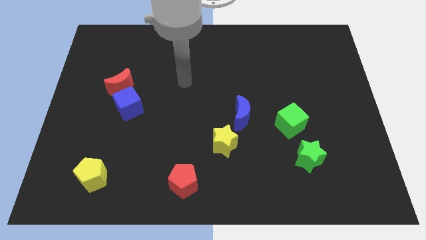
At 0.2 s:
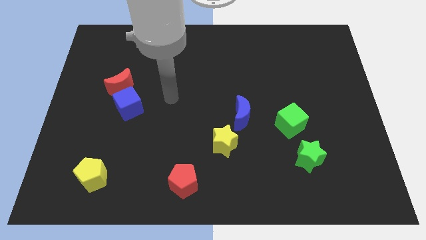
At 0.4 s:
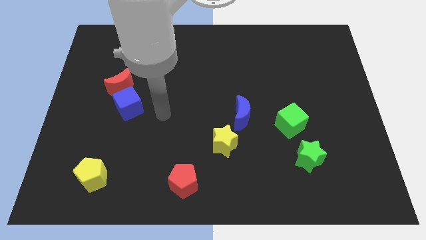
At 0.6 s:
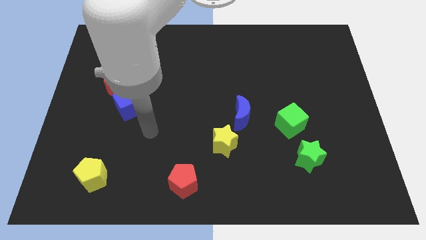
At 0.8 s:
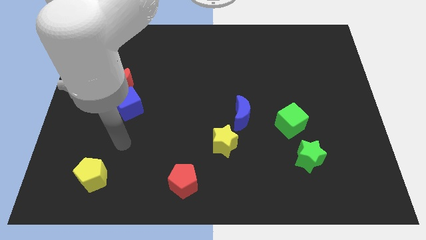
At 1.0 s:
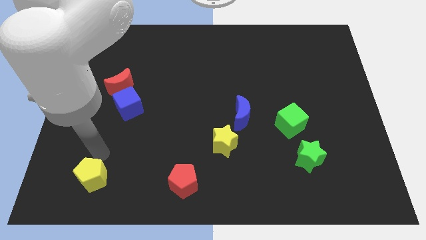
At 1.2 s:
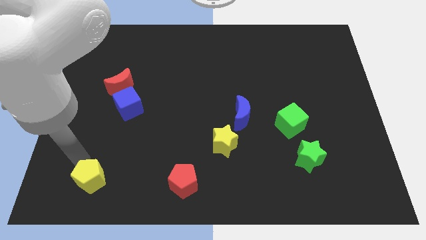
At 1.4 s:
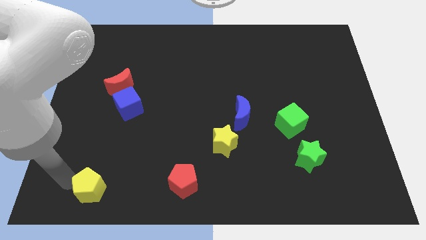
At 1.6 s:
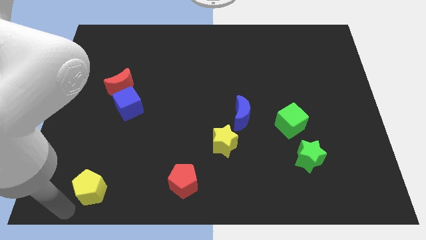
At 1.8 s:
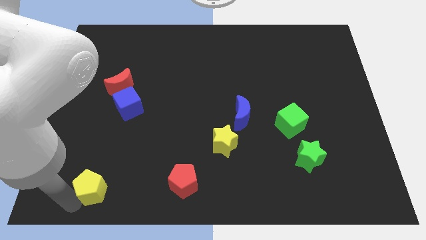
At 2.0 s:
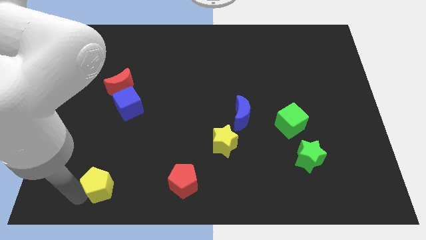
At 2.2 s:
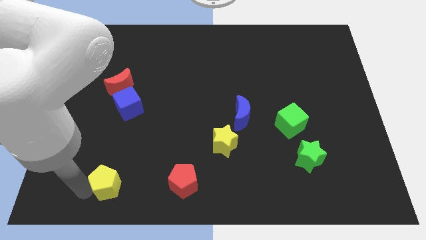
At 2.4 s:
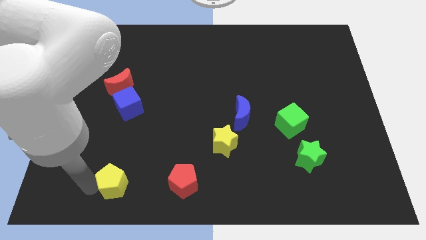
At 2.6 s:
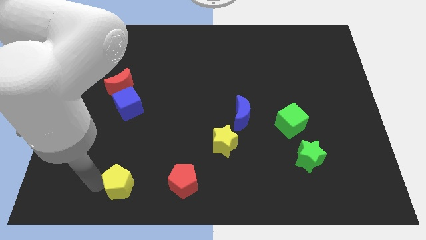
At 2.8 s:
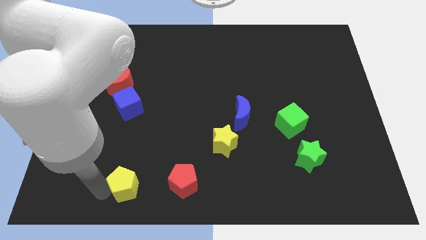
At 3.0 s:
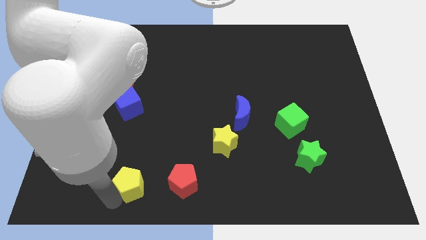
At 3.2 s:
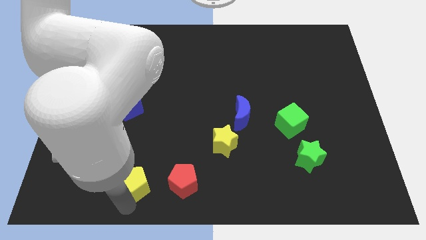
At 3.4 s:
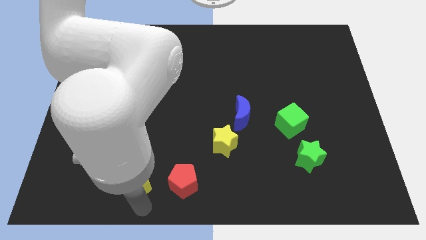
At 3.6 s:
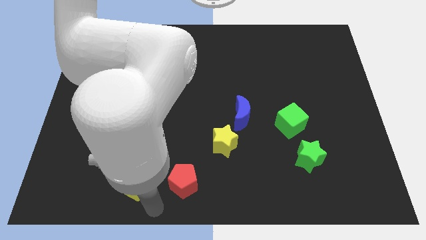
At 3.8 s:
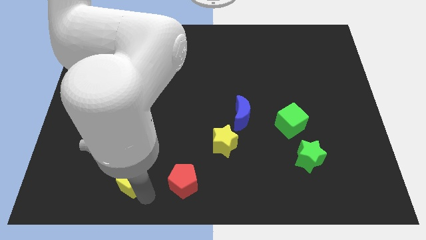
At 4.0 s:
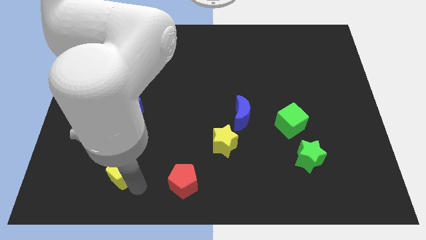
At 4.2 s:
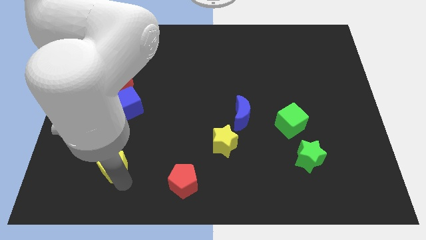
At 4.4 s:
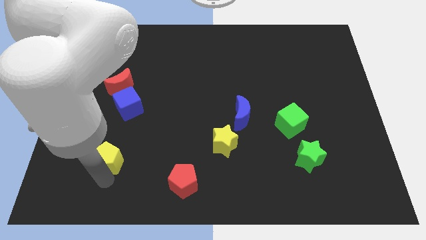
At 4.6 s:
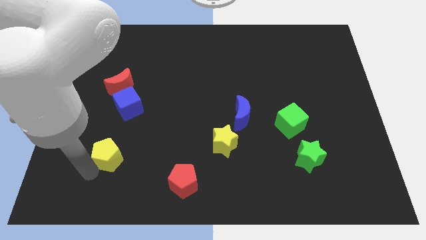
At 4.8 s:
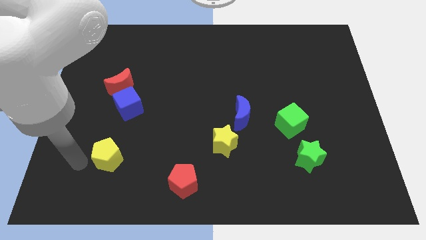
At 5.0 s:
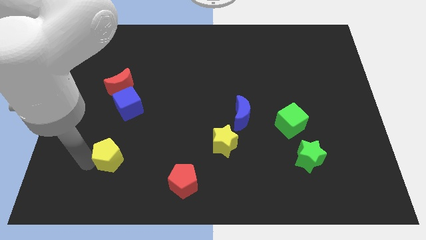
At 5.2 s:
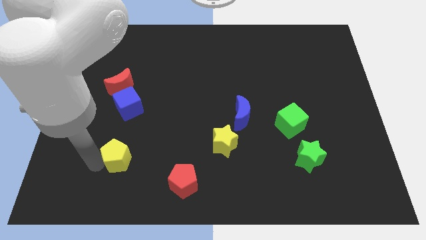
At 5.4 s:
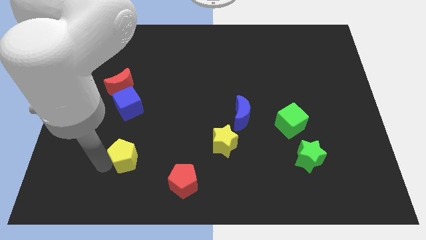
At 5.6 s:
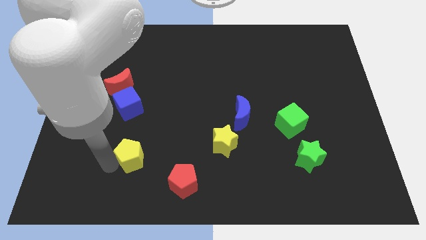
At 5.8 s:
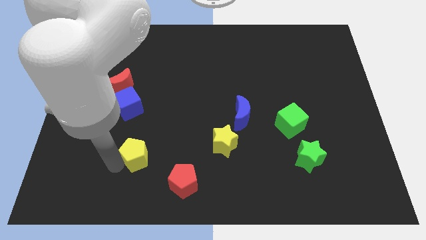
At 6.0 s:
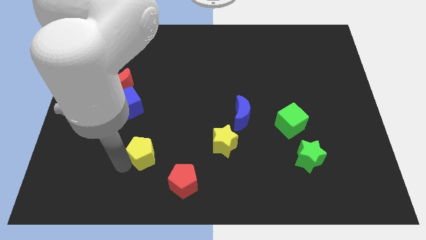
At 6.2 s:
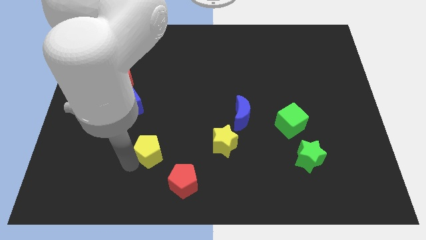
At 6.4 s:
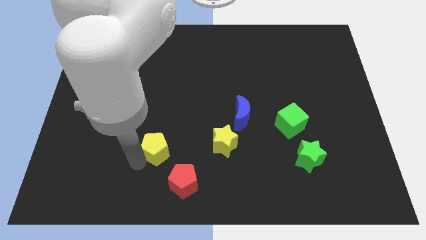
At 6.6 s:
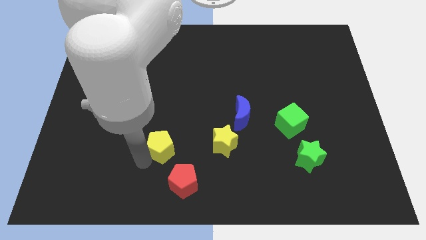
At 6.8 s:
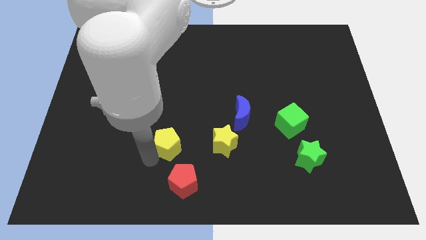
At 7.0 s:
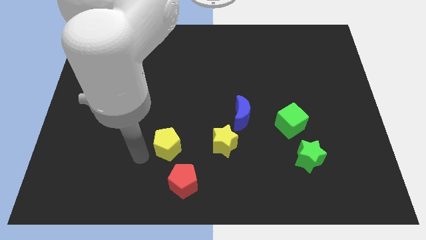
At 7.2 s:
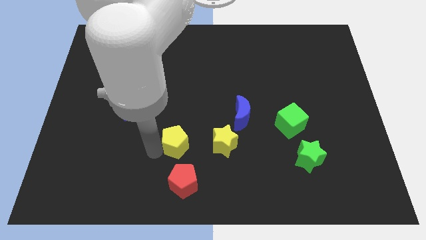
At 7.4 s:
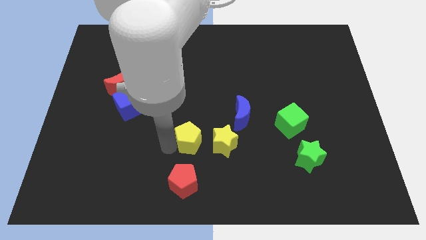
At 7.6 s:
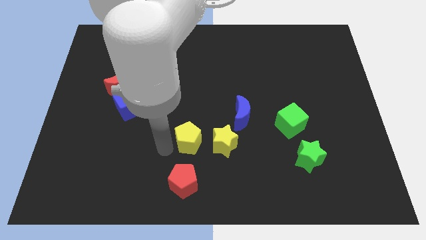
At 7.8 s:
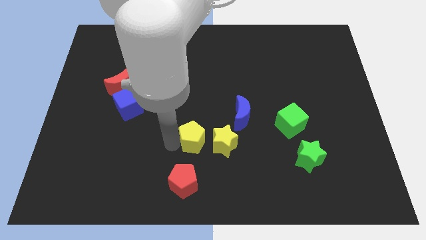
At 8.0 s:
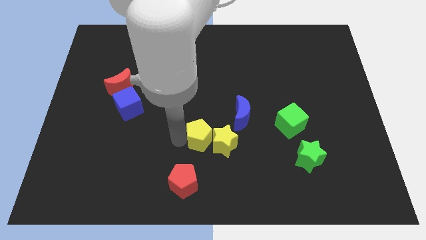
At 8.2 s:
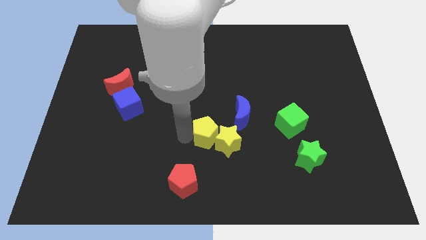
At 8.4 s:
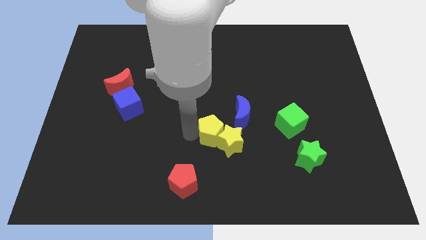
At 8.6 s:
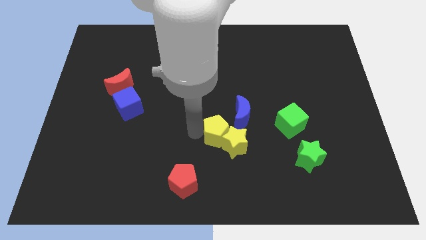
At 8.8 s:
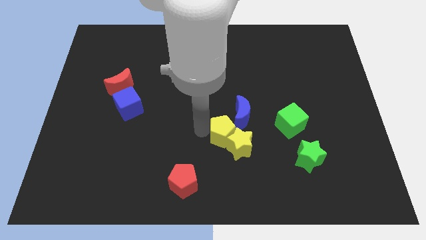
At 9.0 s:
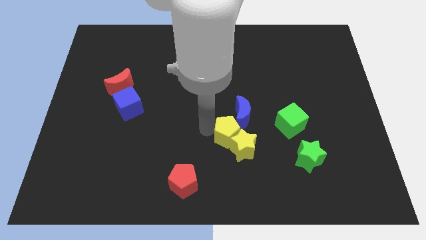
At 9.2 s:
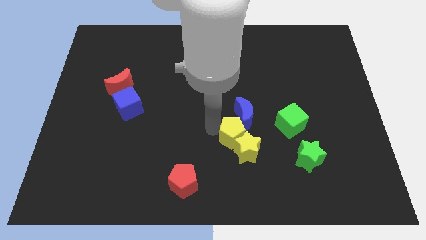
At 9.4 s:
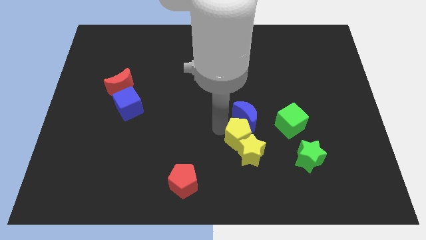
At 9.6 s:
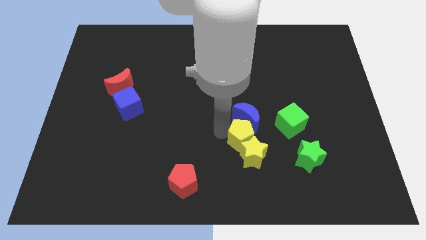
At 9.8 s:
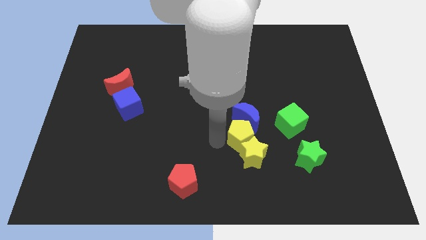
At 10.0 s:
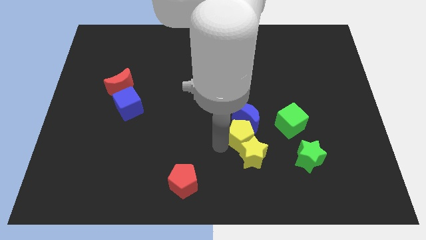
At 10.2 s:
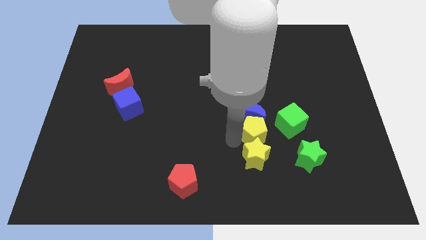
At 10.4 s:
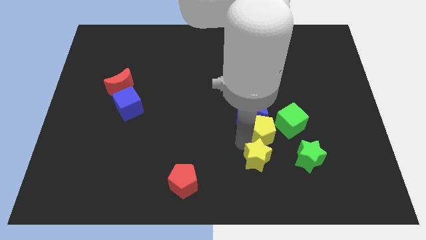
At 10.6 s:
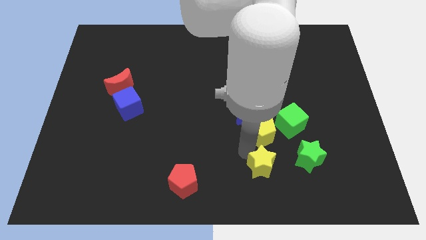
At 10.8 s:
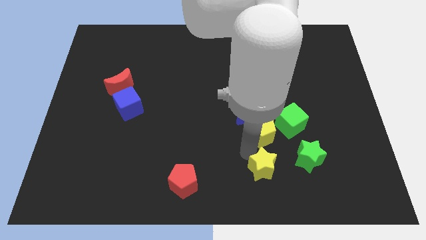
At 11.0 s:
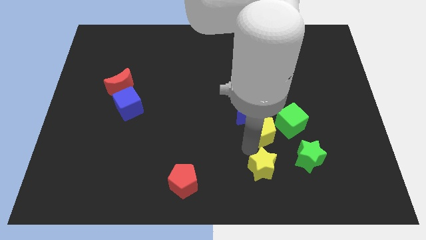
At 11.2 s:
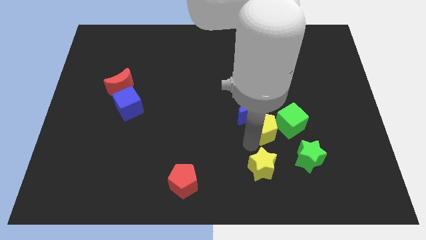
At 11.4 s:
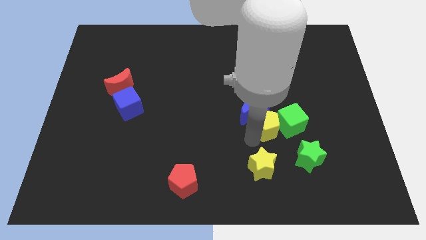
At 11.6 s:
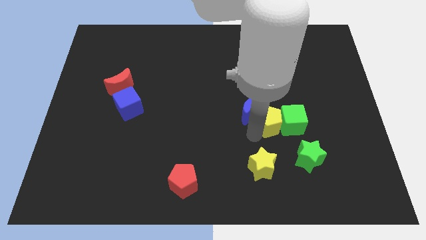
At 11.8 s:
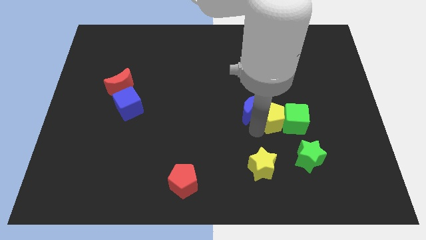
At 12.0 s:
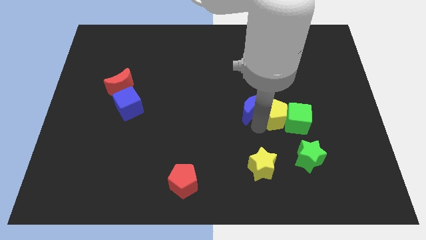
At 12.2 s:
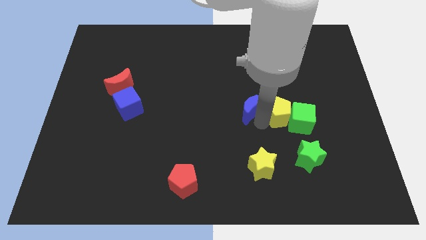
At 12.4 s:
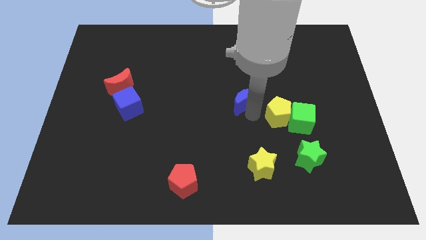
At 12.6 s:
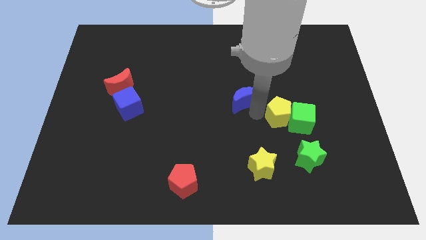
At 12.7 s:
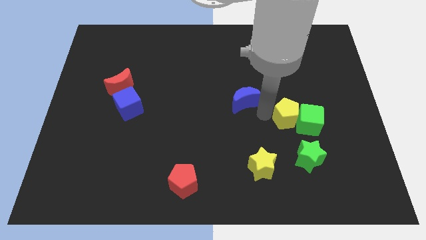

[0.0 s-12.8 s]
put the yellow pentagon to the top side of the green star
